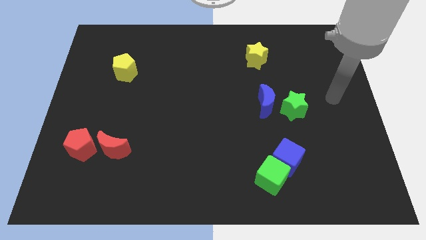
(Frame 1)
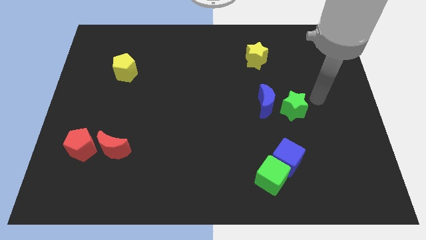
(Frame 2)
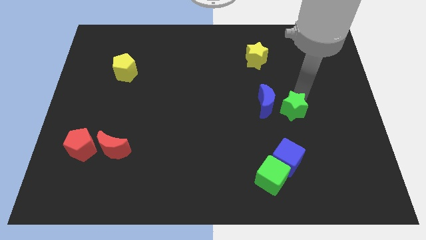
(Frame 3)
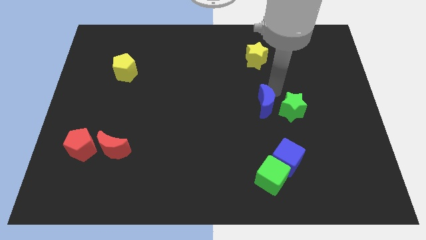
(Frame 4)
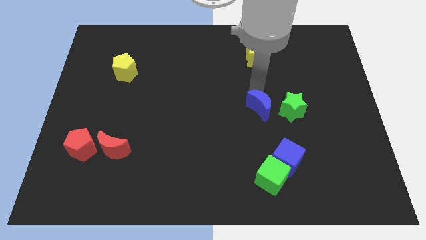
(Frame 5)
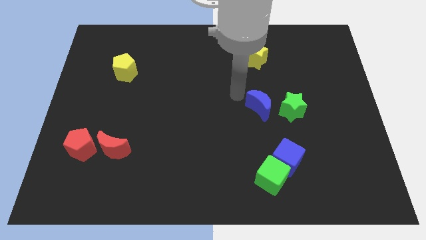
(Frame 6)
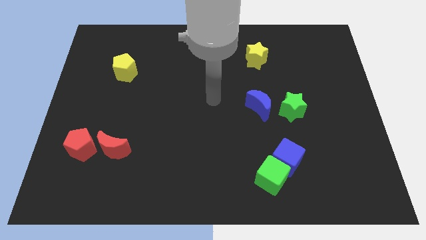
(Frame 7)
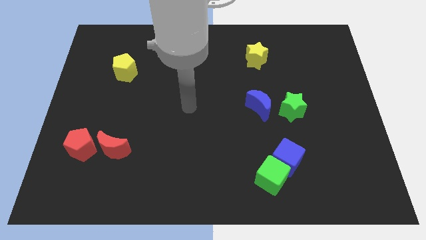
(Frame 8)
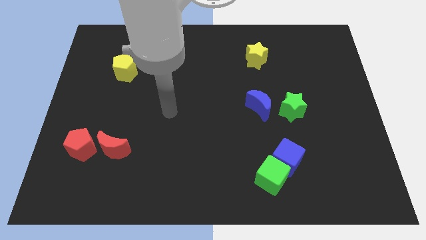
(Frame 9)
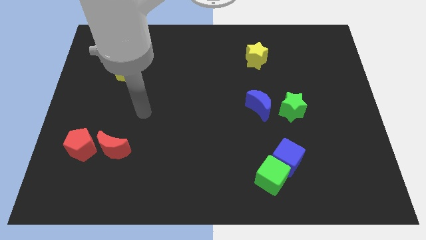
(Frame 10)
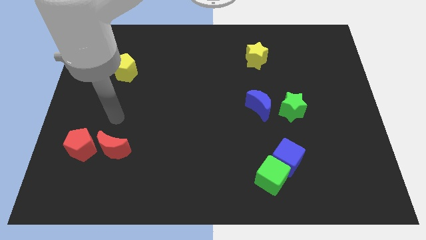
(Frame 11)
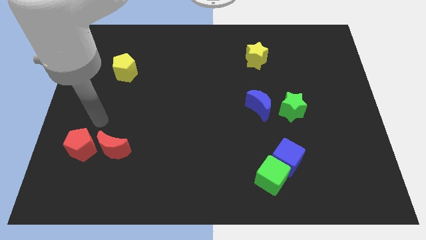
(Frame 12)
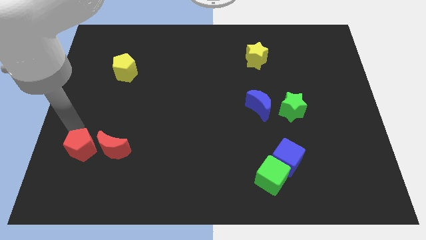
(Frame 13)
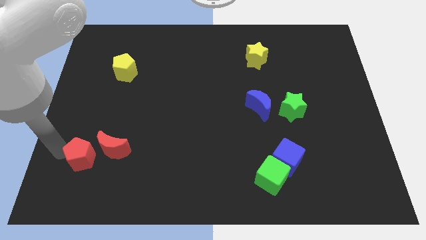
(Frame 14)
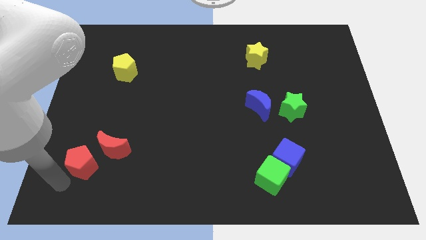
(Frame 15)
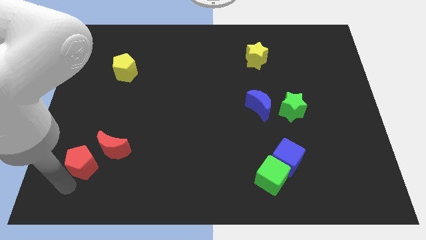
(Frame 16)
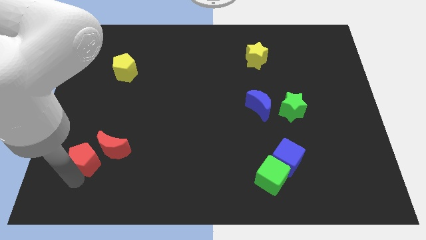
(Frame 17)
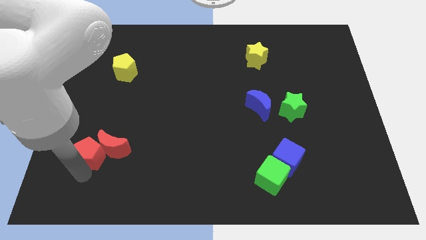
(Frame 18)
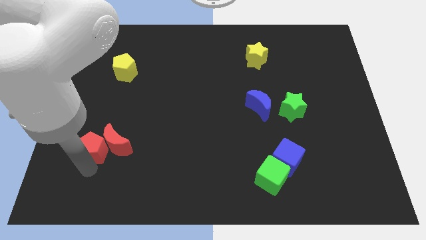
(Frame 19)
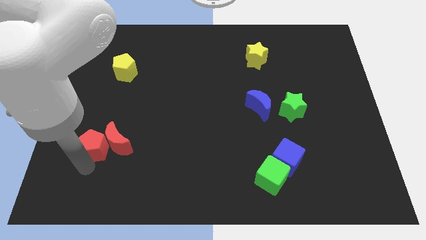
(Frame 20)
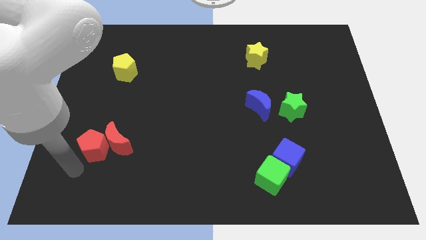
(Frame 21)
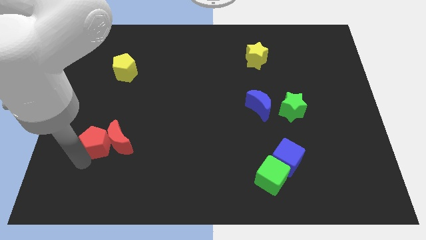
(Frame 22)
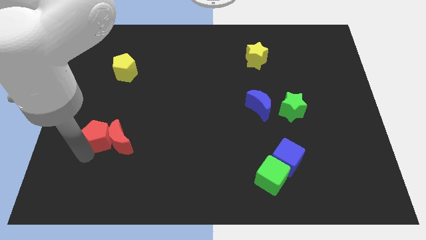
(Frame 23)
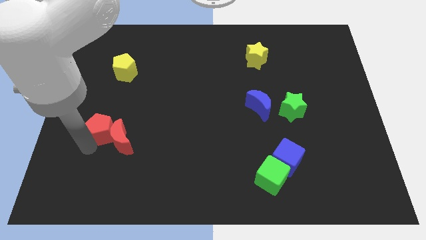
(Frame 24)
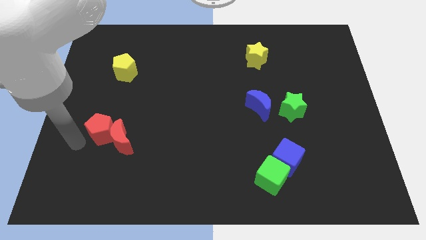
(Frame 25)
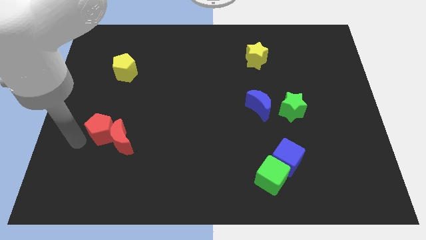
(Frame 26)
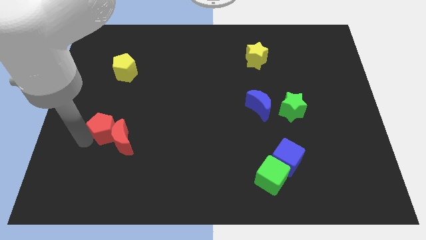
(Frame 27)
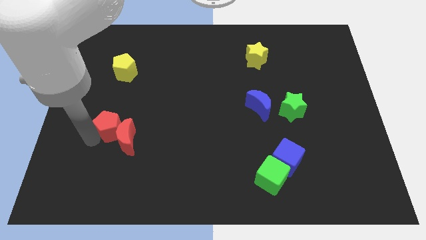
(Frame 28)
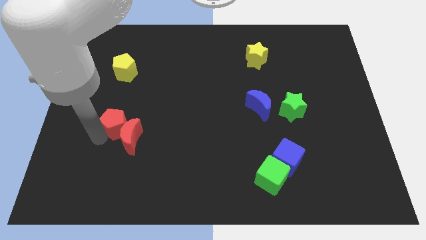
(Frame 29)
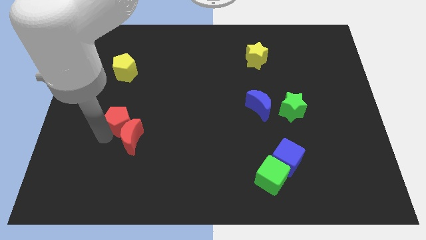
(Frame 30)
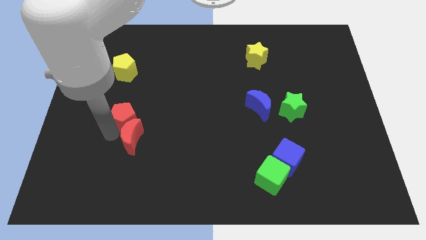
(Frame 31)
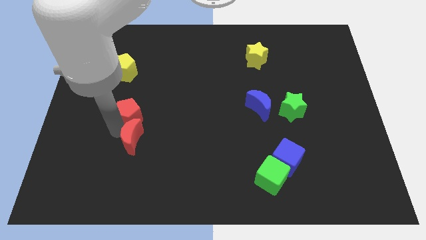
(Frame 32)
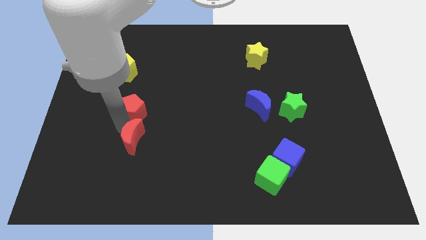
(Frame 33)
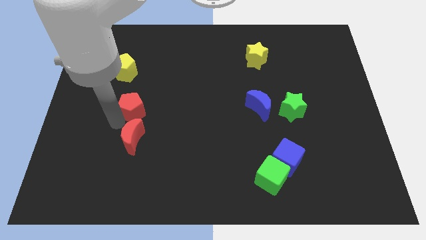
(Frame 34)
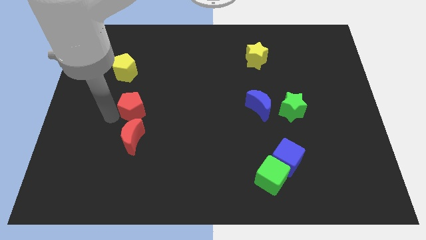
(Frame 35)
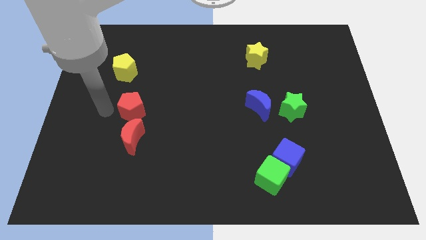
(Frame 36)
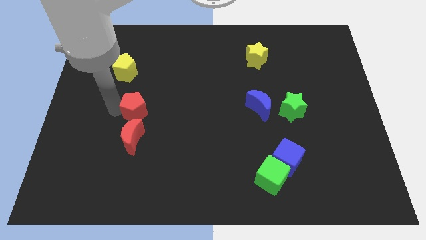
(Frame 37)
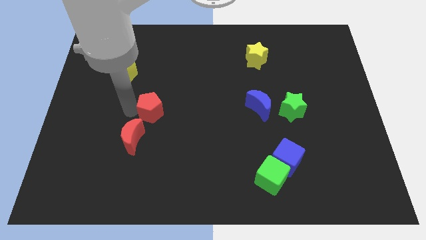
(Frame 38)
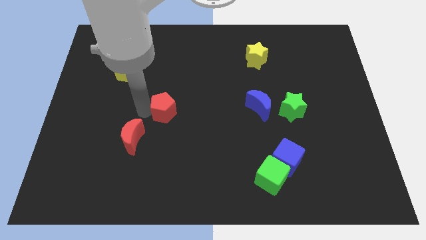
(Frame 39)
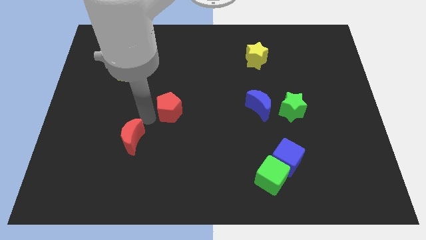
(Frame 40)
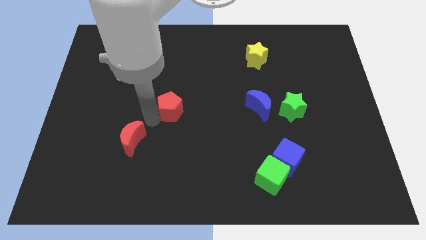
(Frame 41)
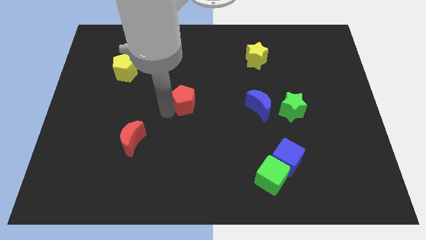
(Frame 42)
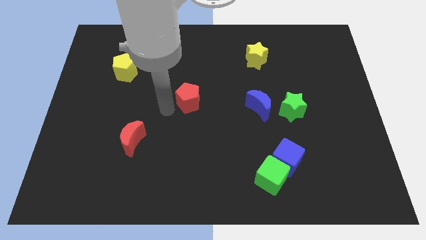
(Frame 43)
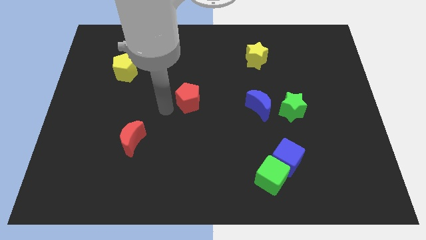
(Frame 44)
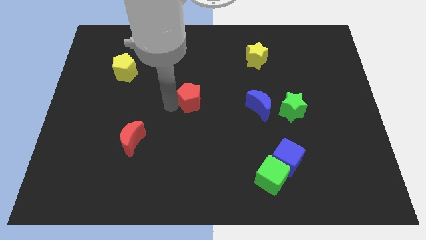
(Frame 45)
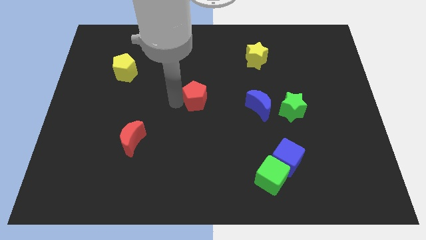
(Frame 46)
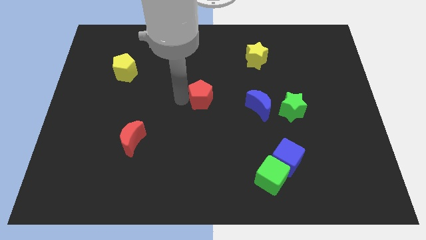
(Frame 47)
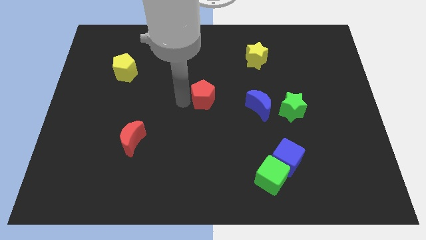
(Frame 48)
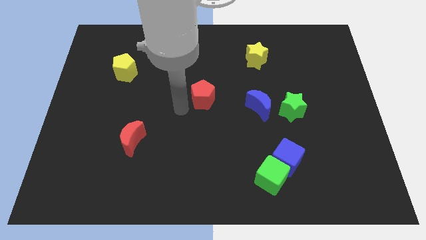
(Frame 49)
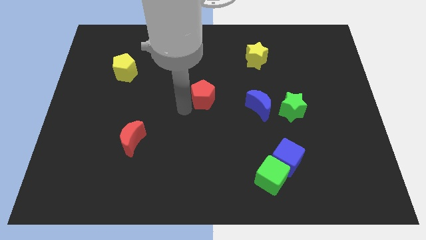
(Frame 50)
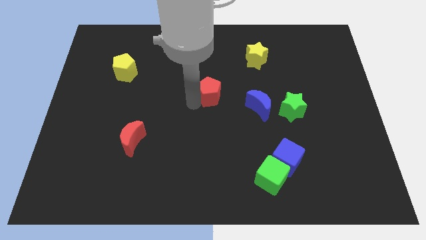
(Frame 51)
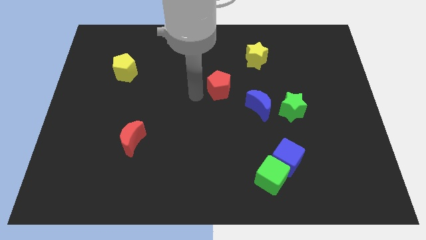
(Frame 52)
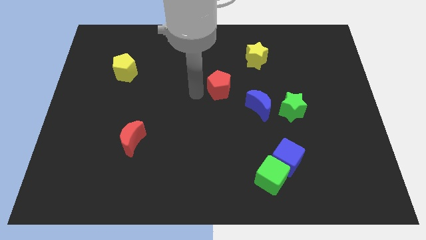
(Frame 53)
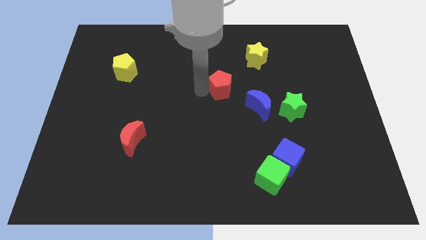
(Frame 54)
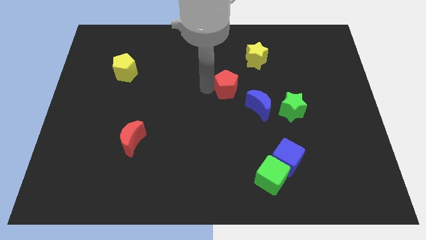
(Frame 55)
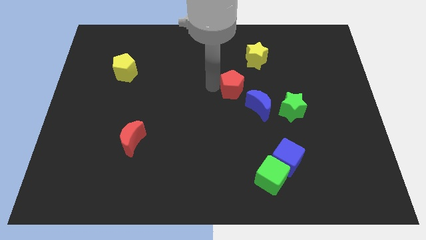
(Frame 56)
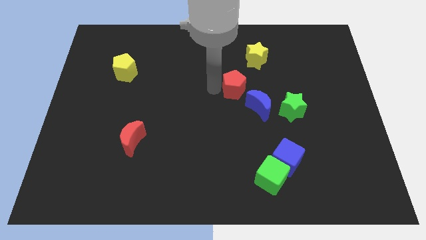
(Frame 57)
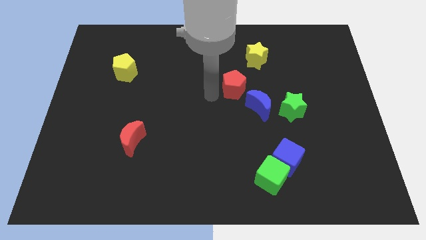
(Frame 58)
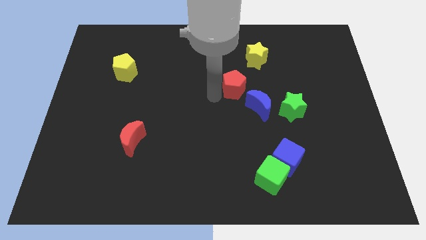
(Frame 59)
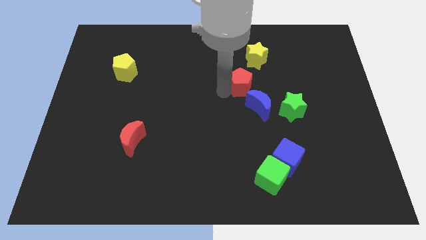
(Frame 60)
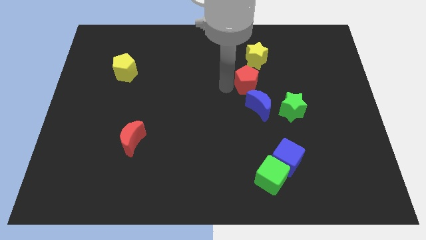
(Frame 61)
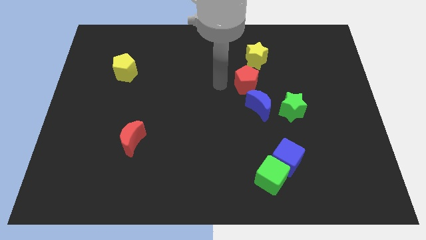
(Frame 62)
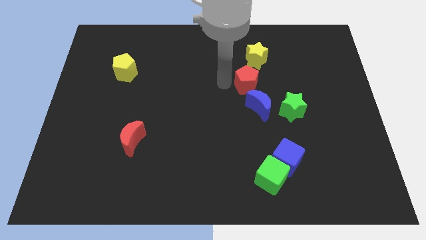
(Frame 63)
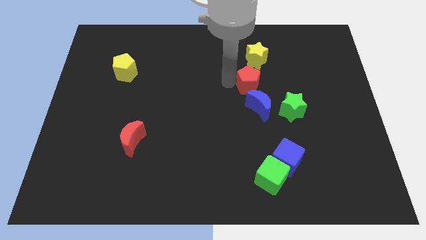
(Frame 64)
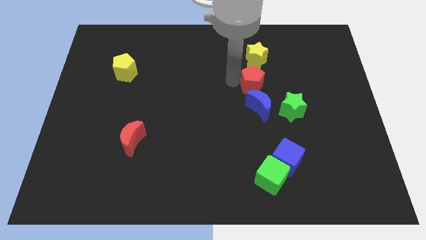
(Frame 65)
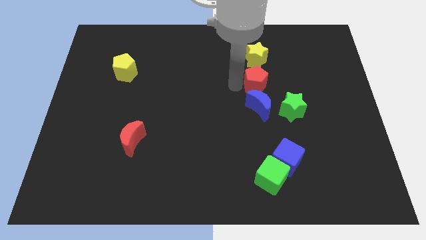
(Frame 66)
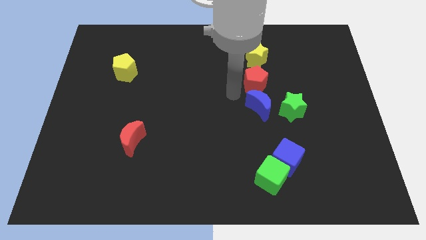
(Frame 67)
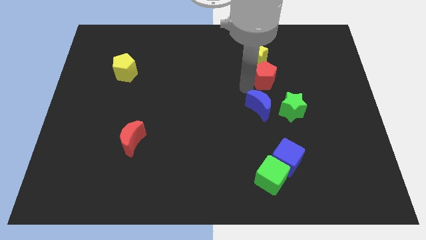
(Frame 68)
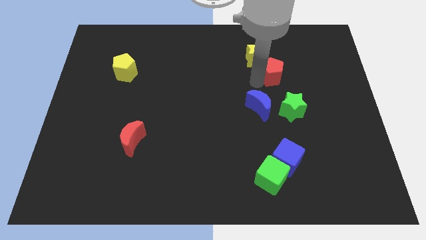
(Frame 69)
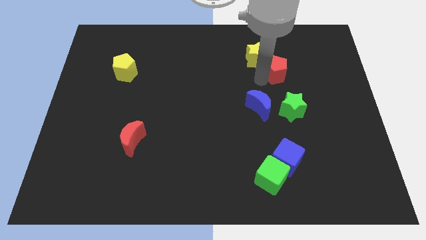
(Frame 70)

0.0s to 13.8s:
put the red pentagon right of the yellow star
